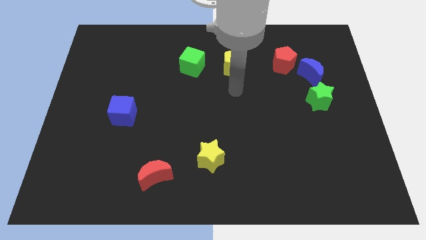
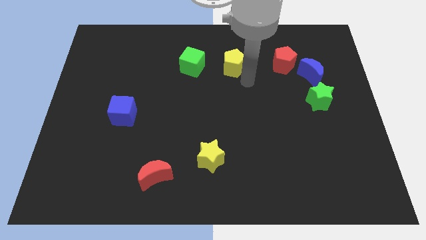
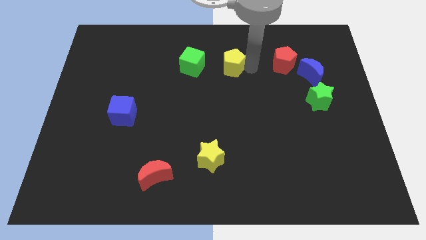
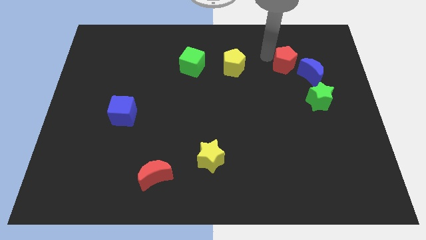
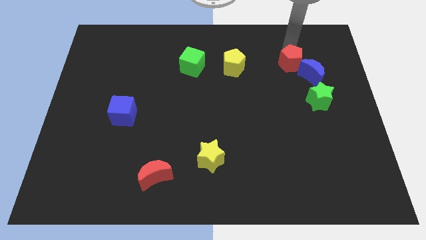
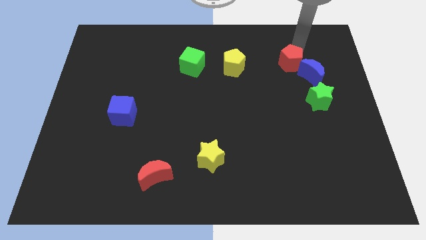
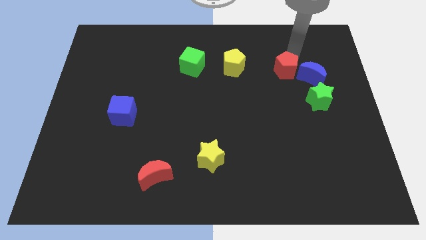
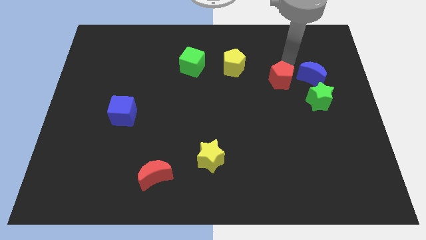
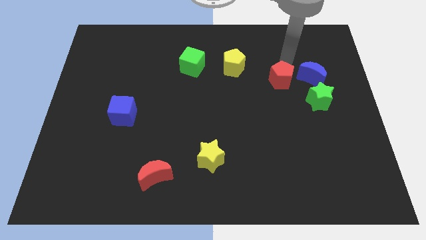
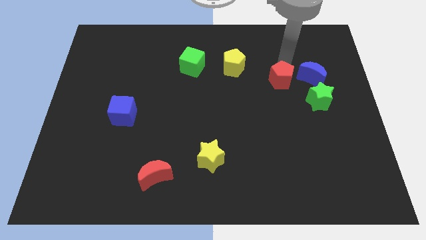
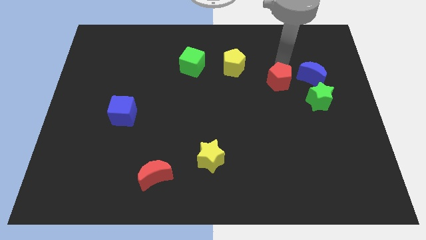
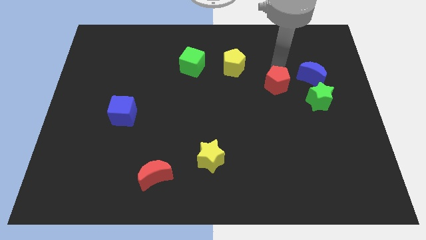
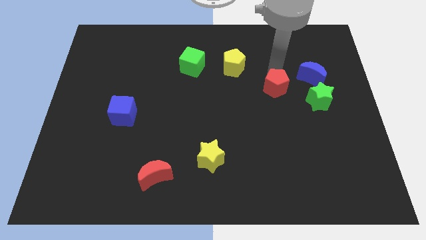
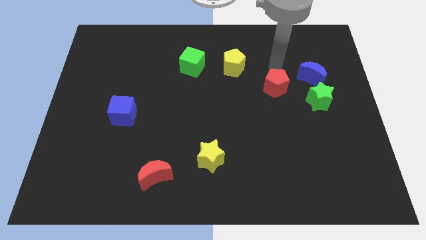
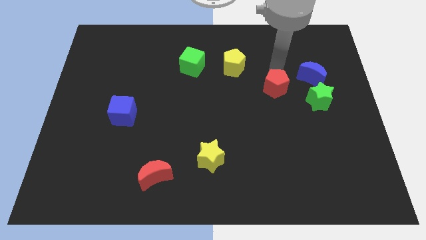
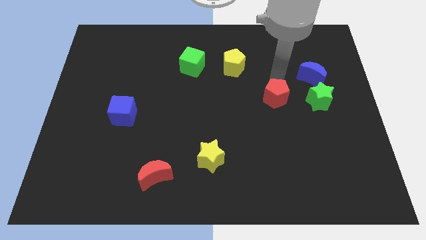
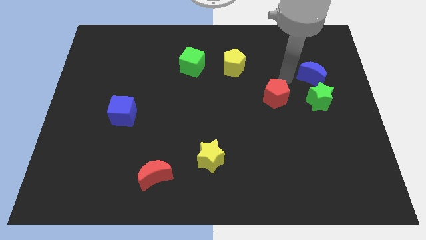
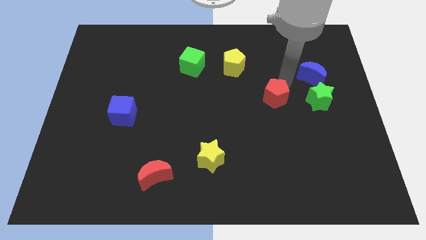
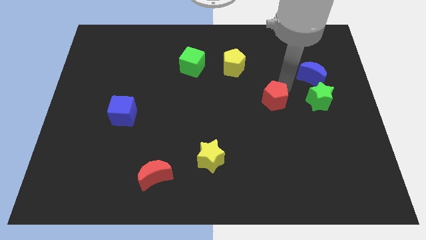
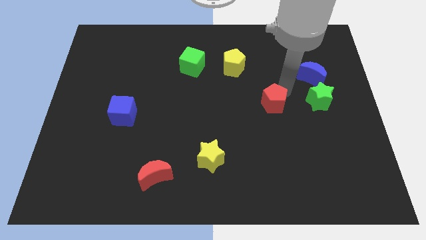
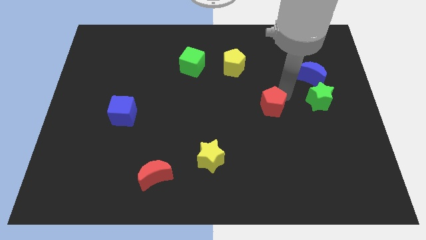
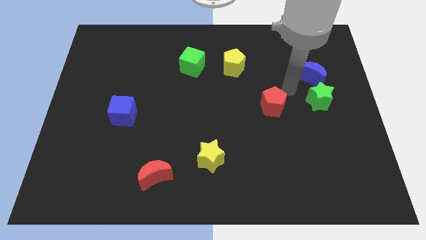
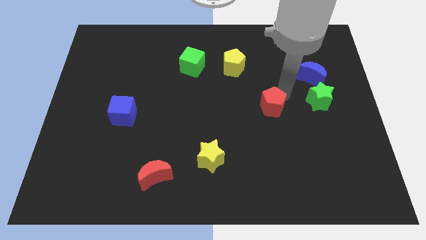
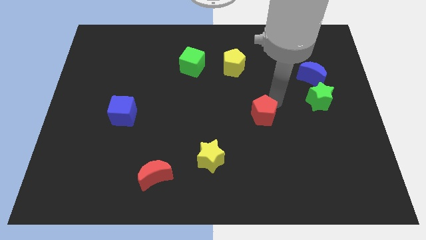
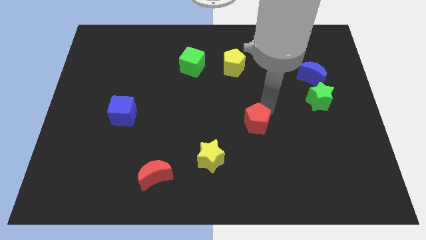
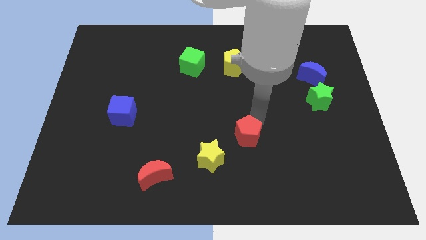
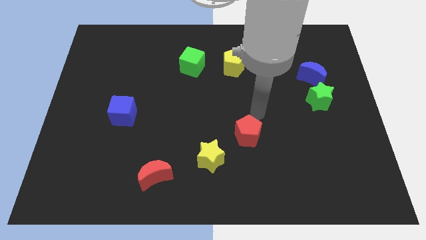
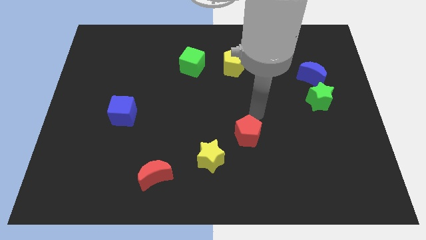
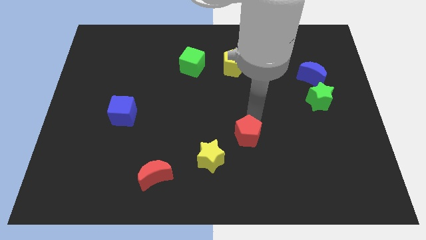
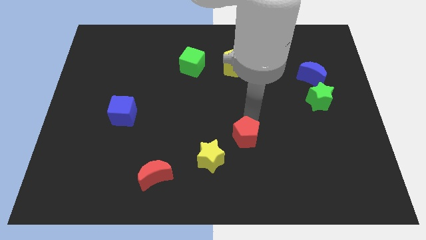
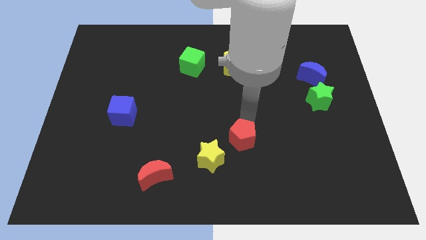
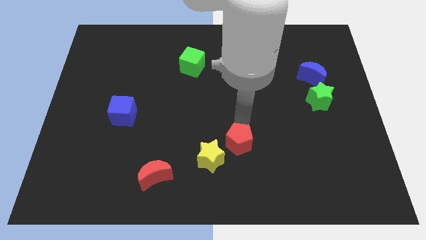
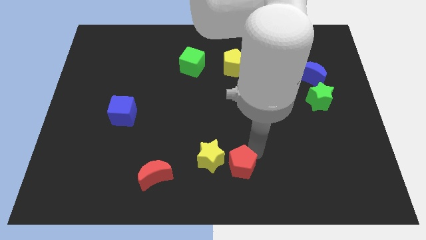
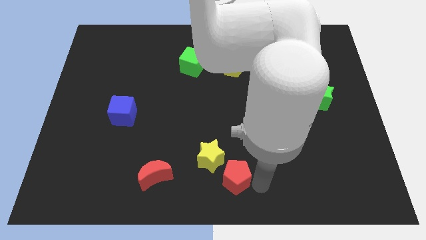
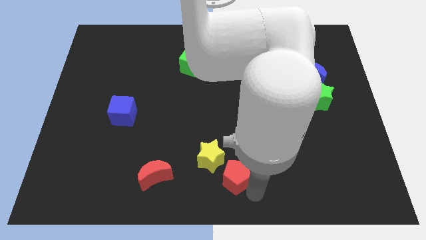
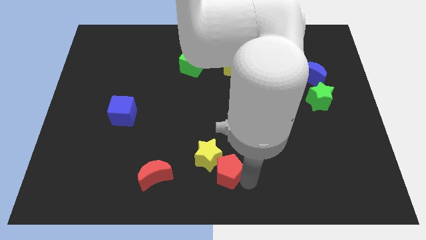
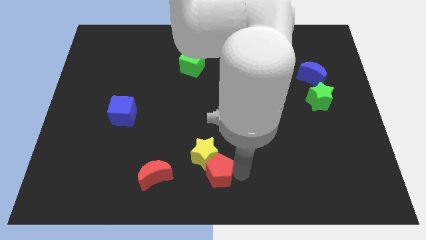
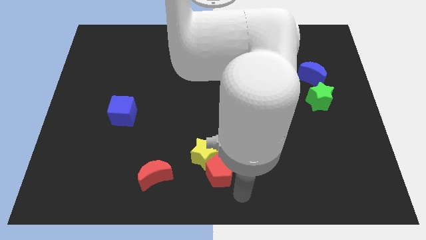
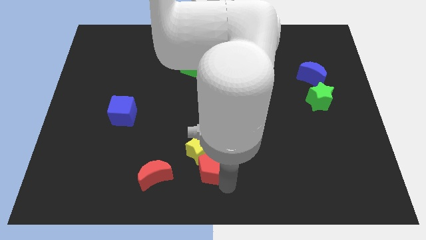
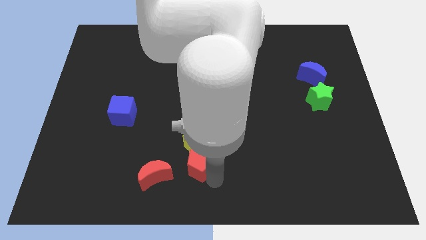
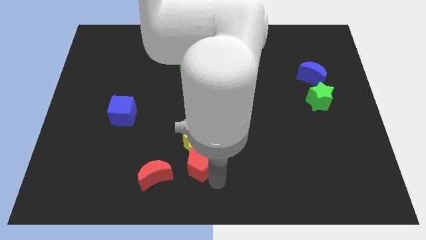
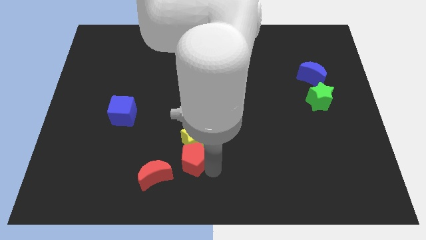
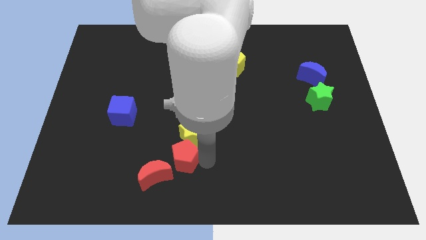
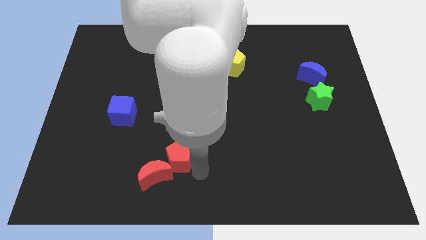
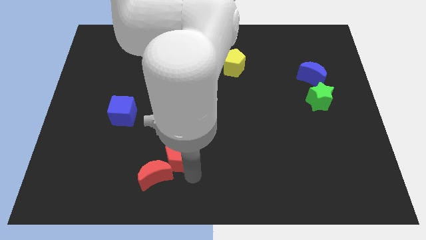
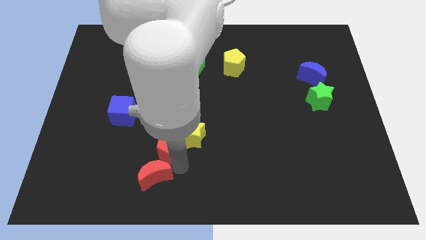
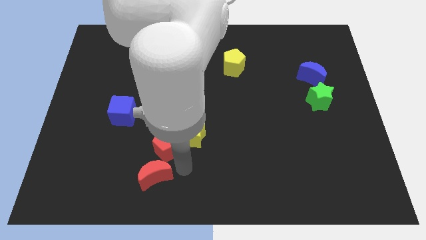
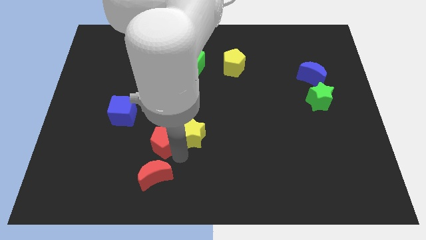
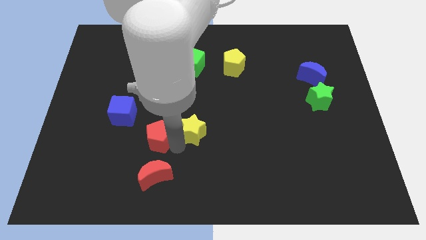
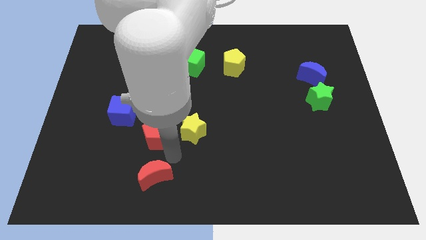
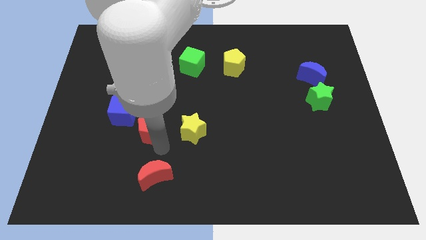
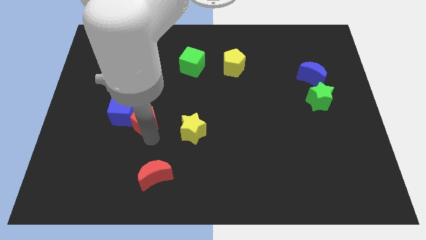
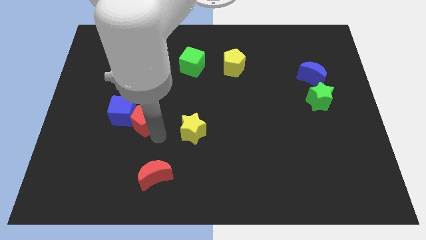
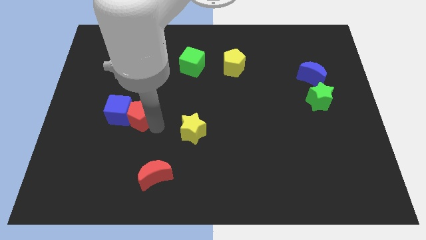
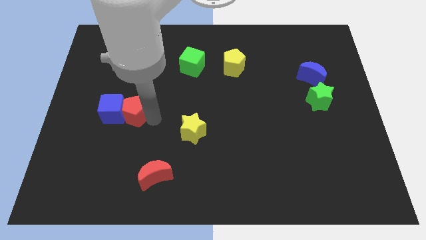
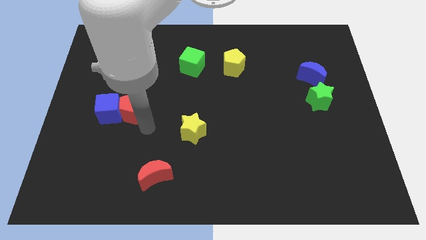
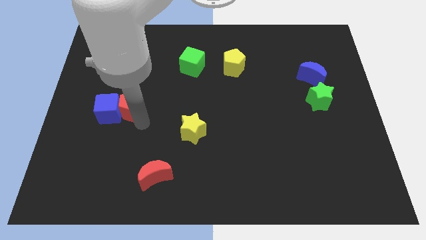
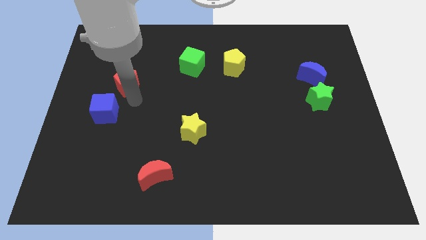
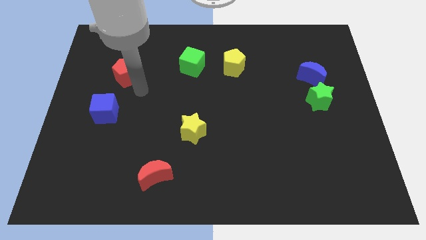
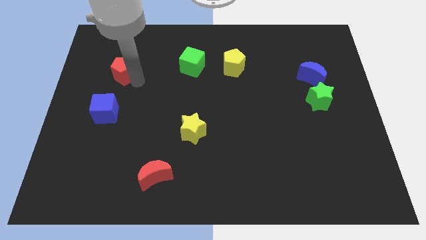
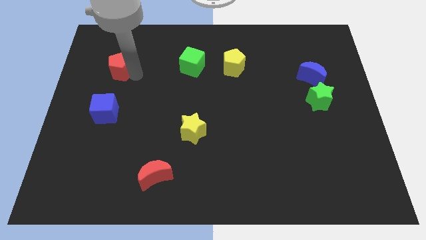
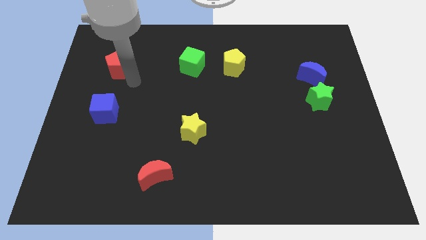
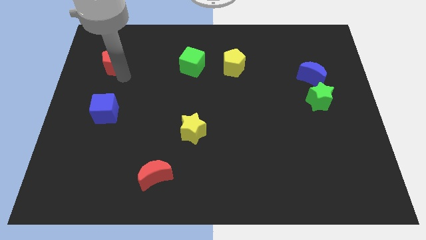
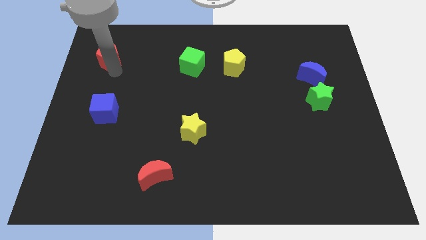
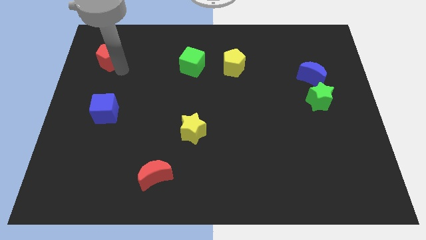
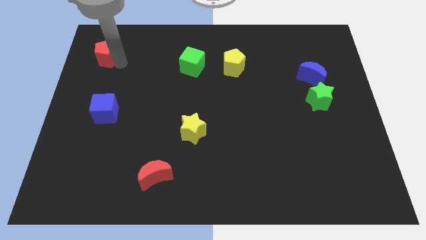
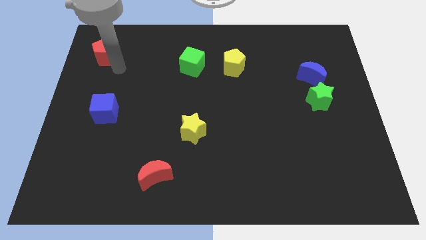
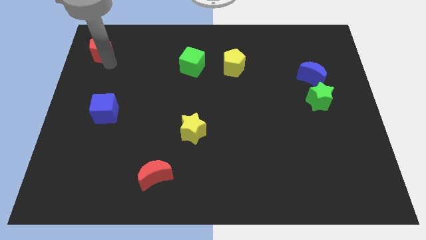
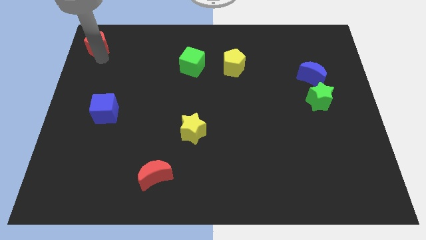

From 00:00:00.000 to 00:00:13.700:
push the red pentagon to the top left of the board
